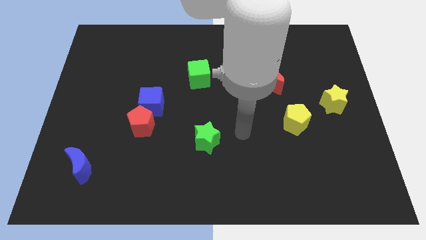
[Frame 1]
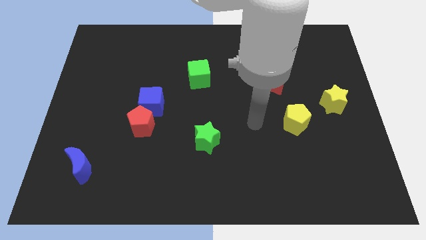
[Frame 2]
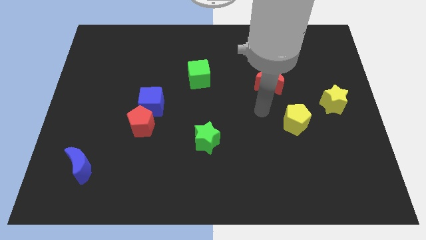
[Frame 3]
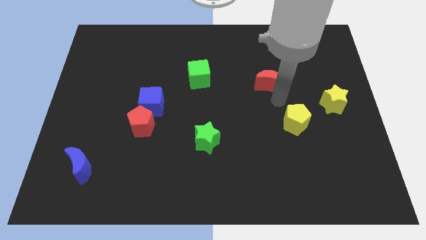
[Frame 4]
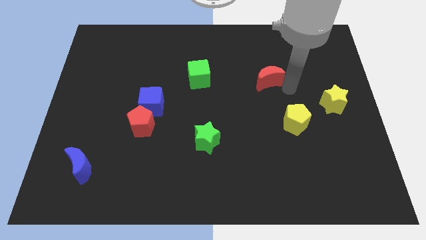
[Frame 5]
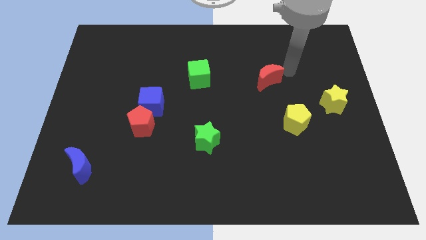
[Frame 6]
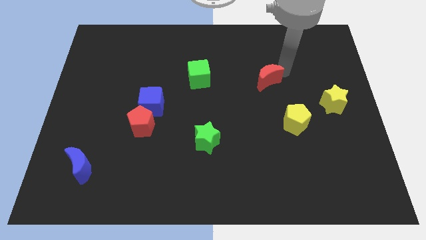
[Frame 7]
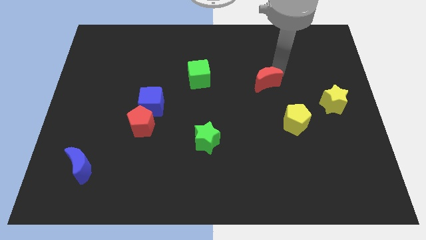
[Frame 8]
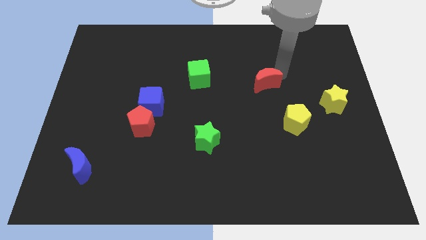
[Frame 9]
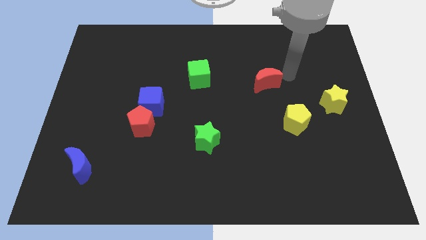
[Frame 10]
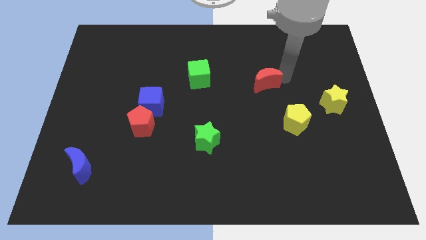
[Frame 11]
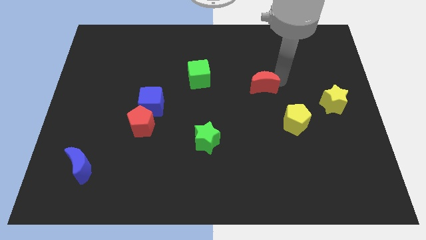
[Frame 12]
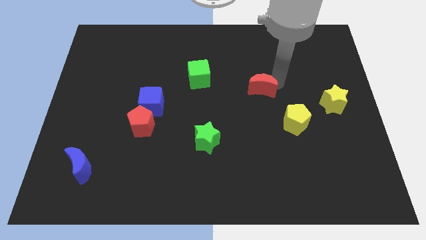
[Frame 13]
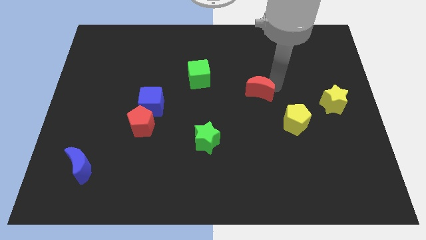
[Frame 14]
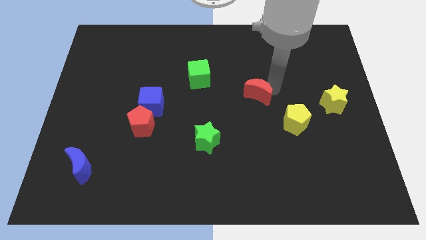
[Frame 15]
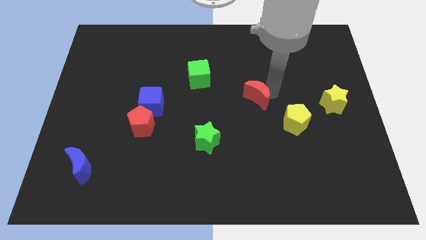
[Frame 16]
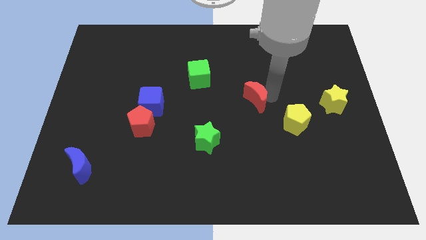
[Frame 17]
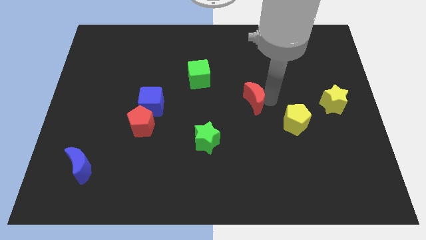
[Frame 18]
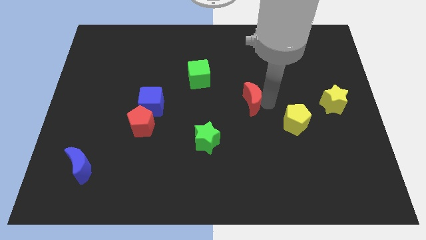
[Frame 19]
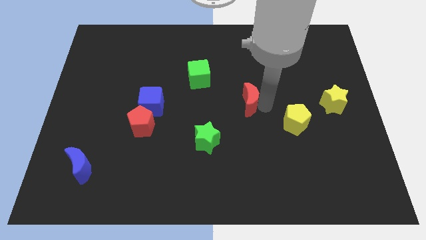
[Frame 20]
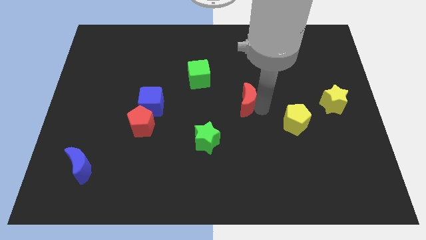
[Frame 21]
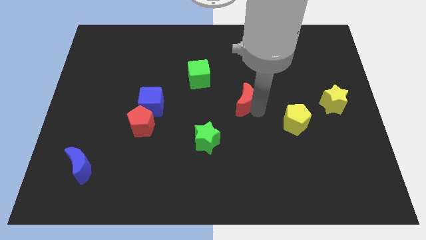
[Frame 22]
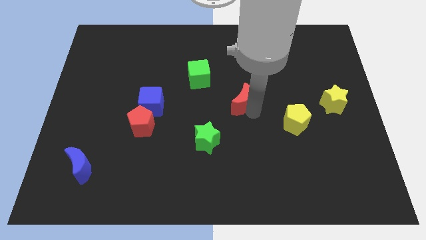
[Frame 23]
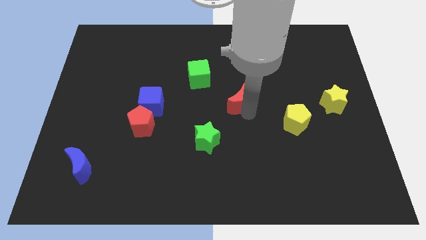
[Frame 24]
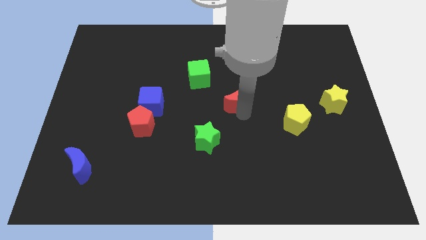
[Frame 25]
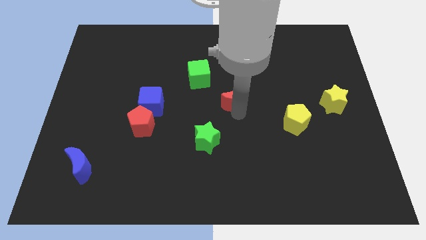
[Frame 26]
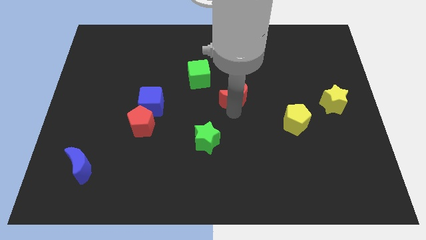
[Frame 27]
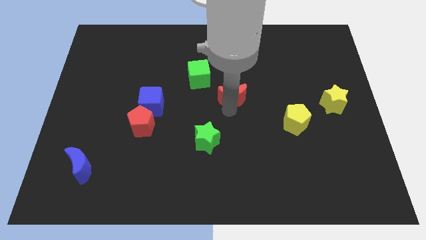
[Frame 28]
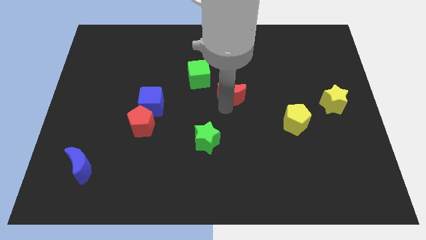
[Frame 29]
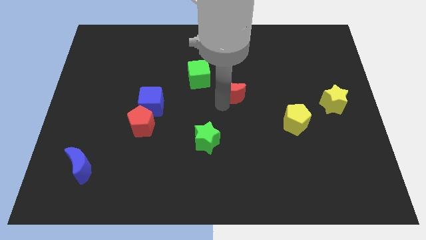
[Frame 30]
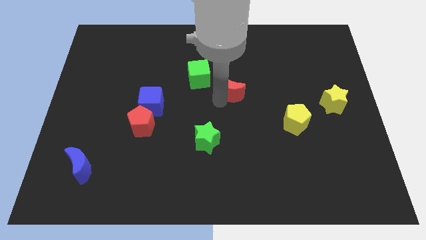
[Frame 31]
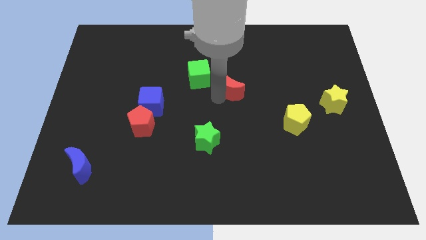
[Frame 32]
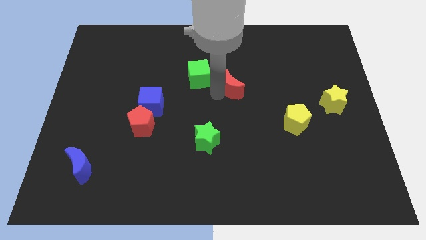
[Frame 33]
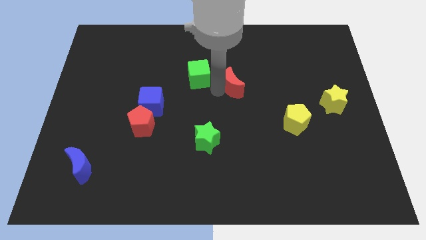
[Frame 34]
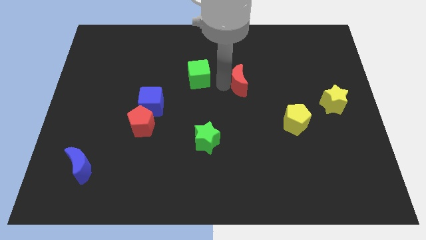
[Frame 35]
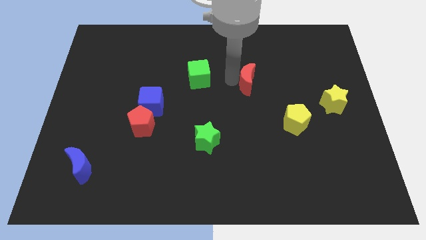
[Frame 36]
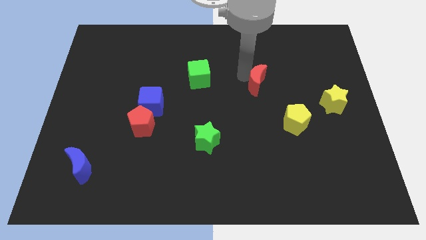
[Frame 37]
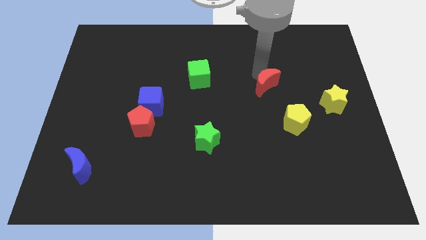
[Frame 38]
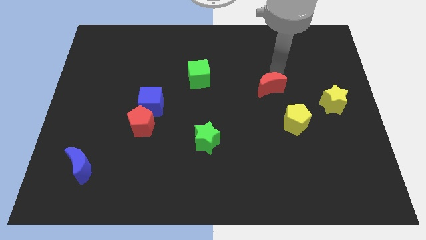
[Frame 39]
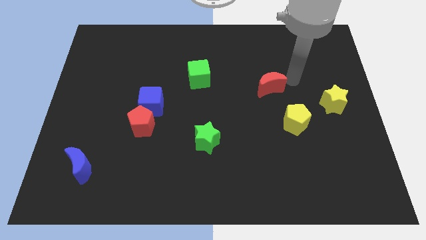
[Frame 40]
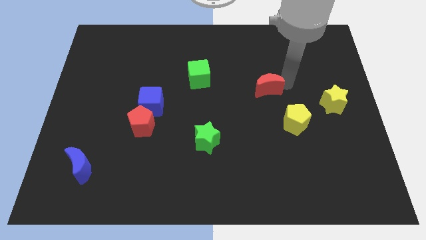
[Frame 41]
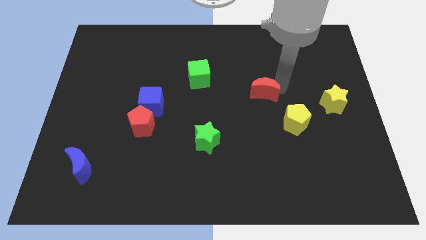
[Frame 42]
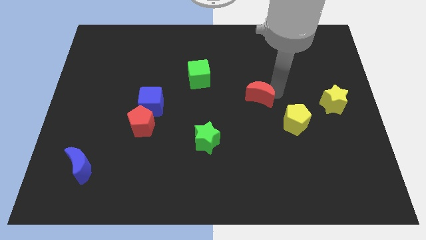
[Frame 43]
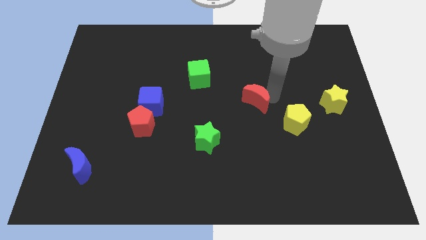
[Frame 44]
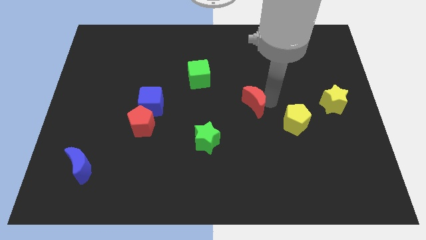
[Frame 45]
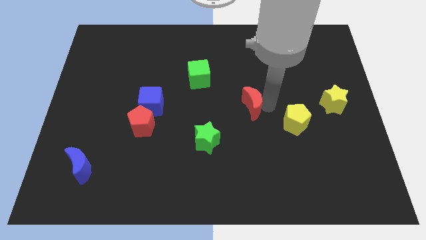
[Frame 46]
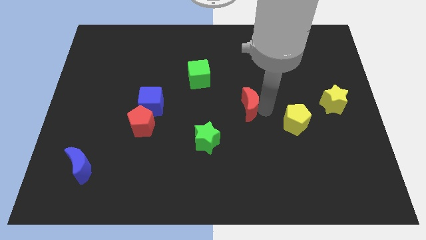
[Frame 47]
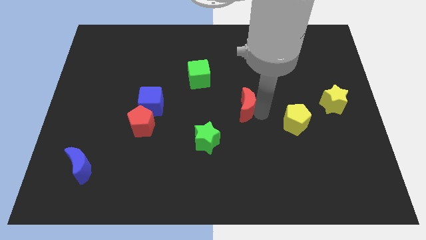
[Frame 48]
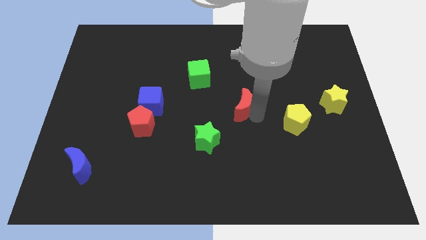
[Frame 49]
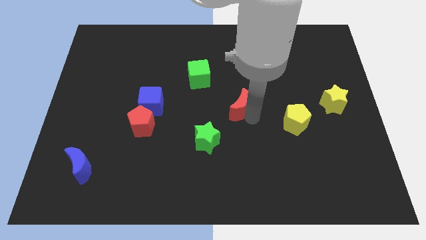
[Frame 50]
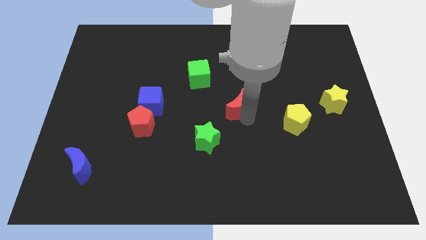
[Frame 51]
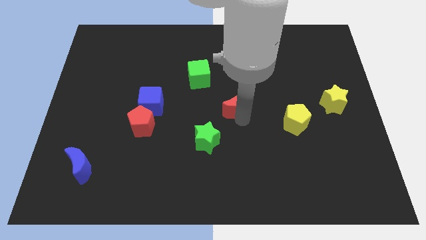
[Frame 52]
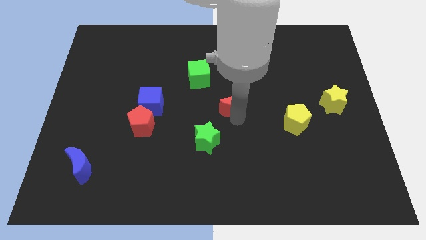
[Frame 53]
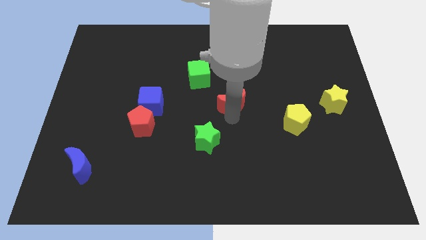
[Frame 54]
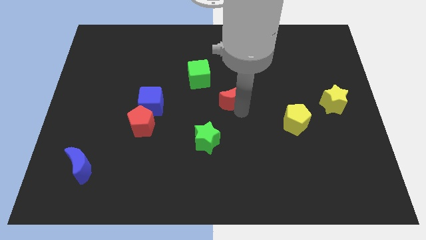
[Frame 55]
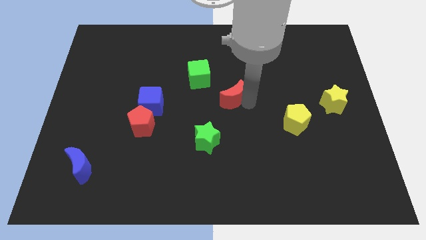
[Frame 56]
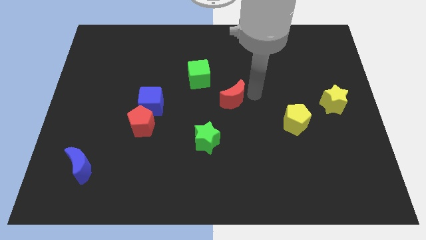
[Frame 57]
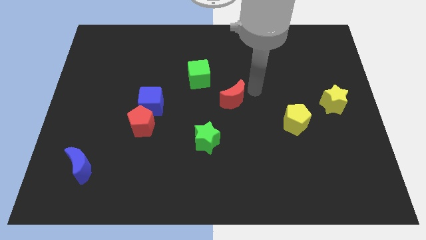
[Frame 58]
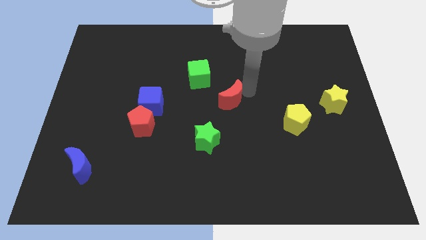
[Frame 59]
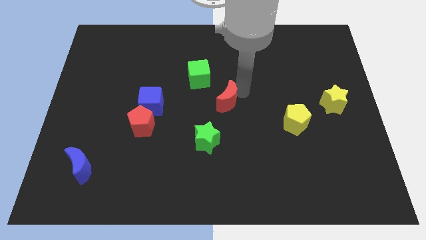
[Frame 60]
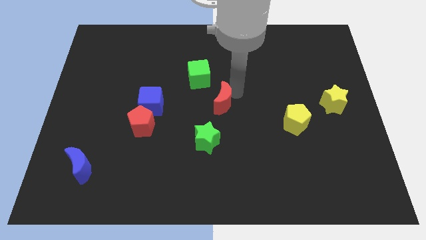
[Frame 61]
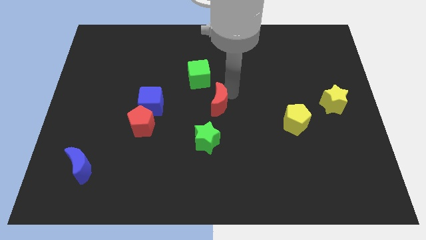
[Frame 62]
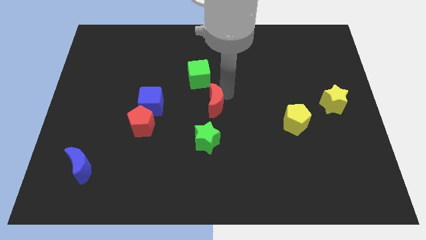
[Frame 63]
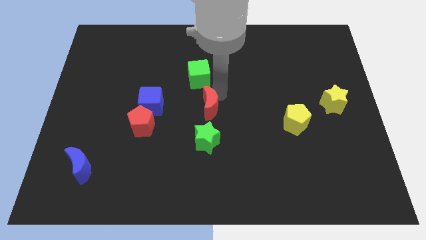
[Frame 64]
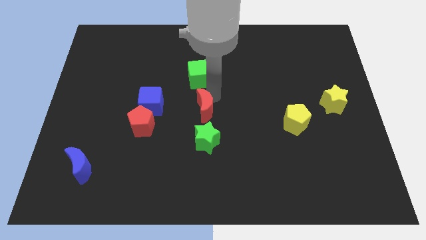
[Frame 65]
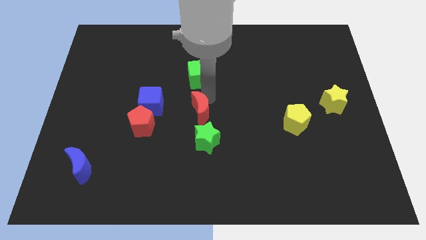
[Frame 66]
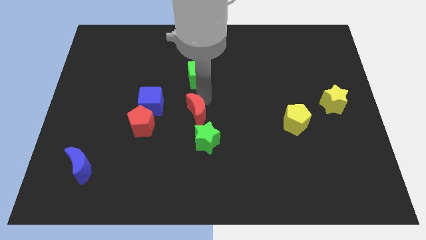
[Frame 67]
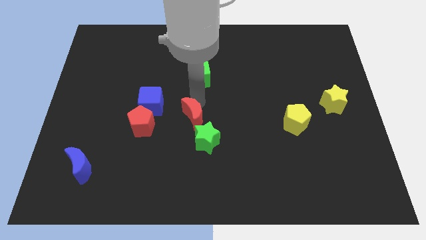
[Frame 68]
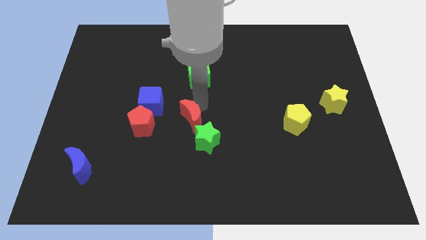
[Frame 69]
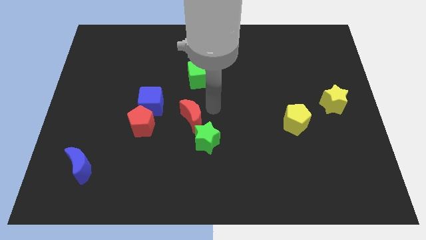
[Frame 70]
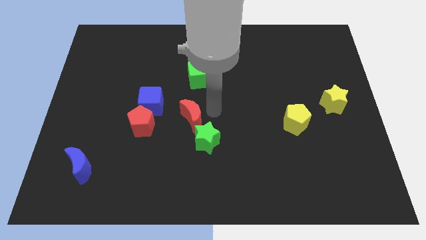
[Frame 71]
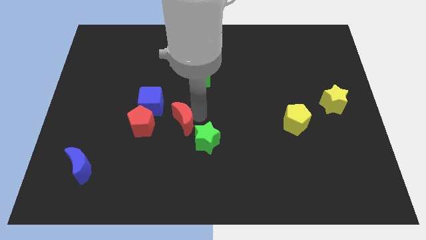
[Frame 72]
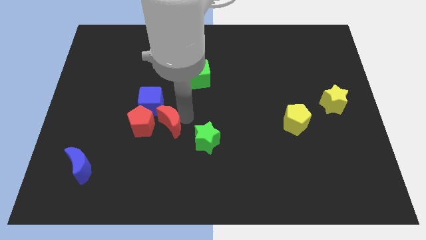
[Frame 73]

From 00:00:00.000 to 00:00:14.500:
push the red moon to the left of the green star

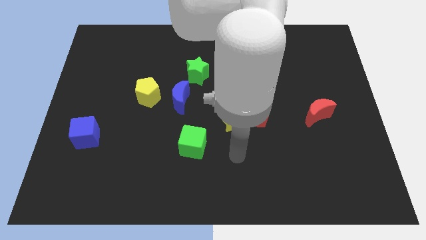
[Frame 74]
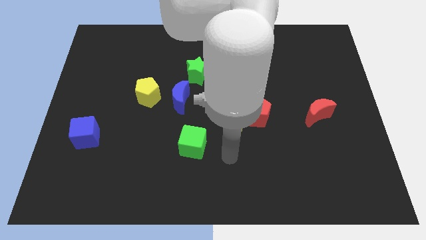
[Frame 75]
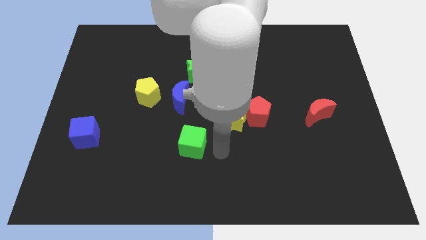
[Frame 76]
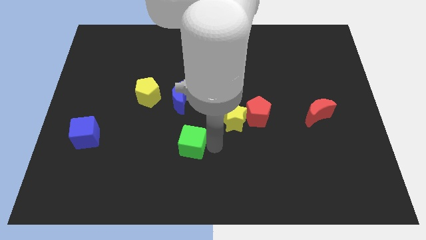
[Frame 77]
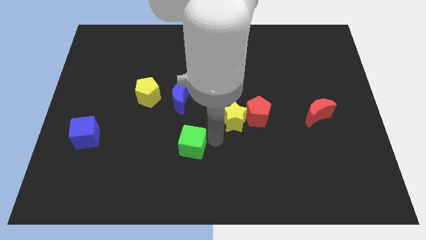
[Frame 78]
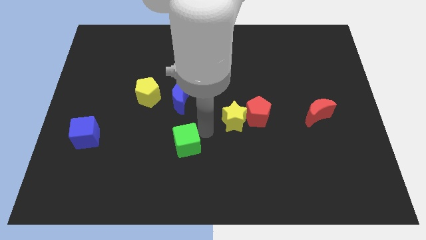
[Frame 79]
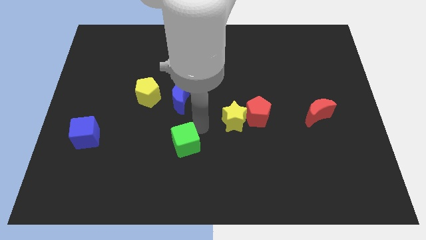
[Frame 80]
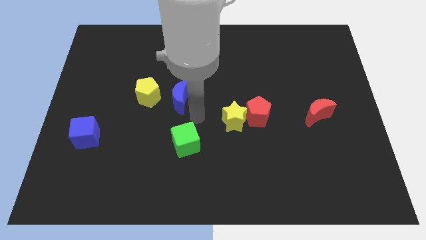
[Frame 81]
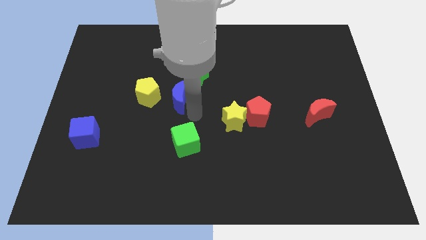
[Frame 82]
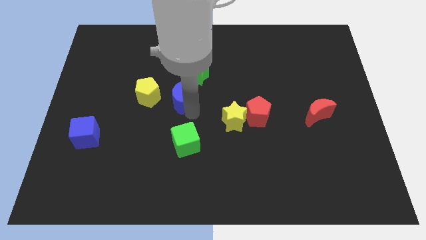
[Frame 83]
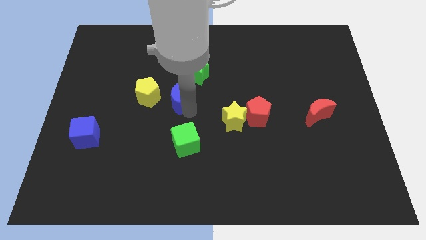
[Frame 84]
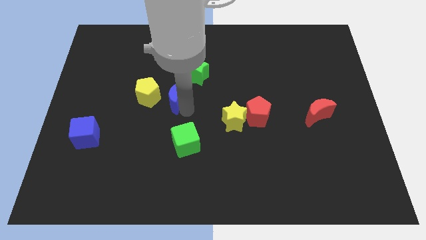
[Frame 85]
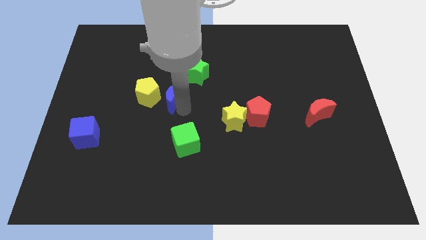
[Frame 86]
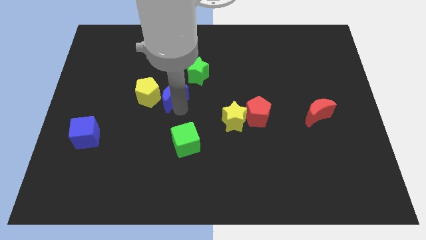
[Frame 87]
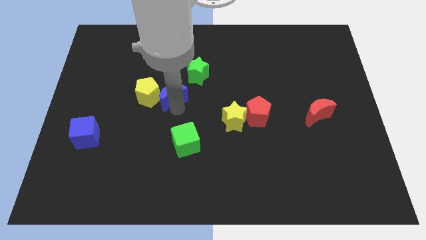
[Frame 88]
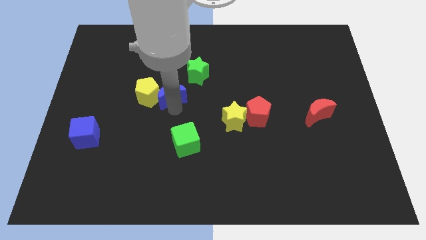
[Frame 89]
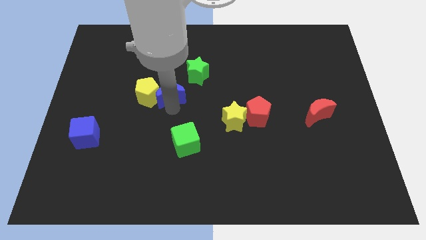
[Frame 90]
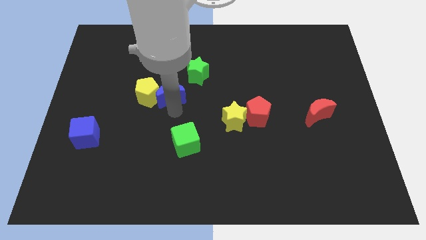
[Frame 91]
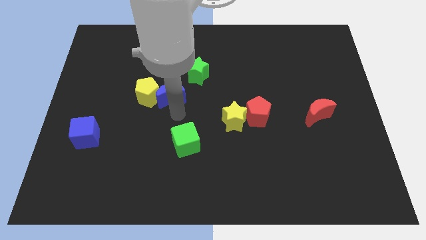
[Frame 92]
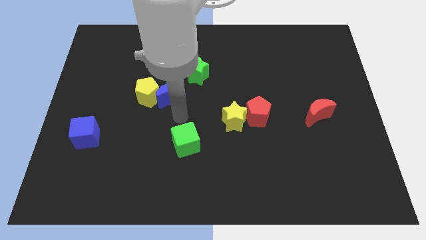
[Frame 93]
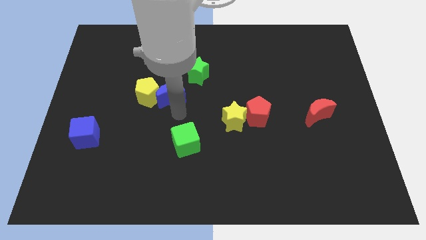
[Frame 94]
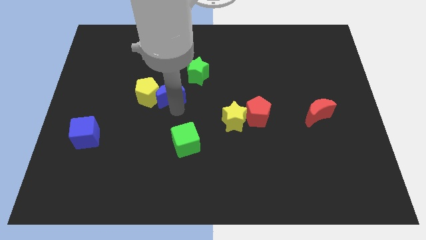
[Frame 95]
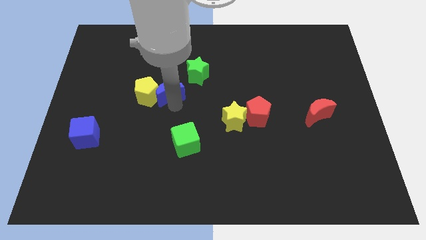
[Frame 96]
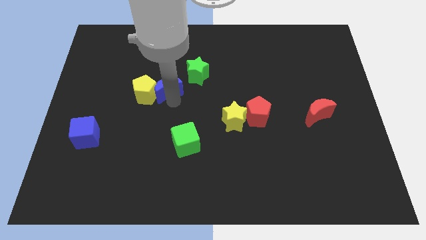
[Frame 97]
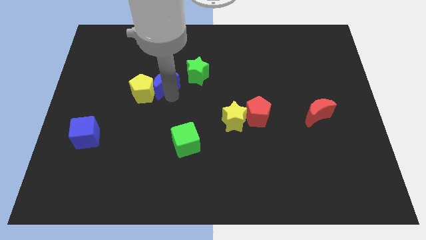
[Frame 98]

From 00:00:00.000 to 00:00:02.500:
move the blue moon to the left side of the green star
